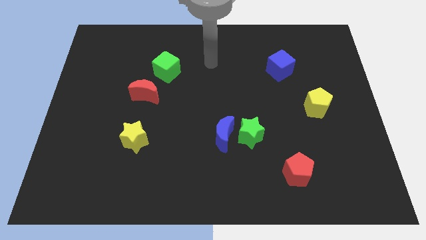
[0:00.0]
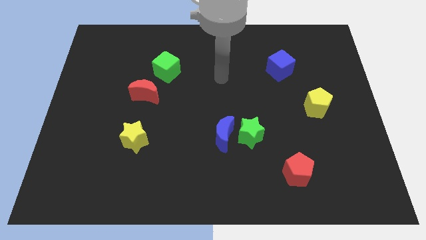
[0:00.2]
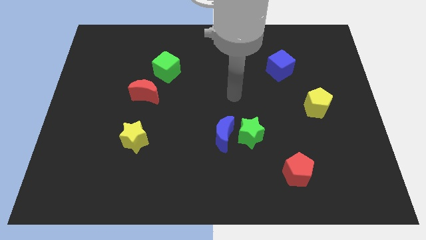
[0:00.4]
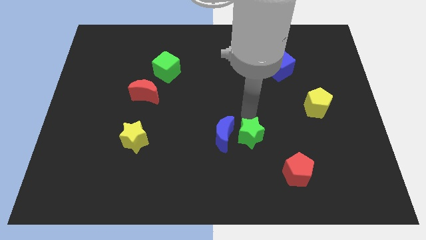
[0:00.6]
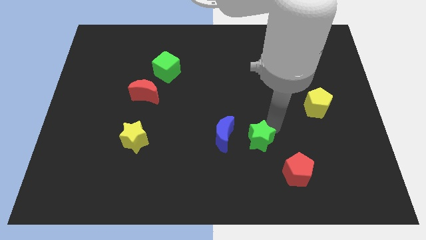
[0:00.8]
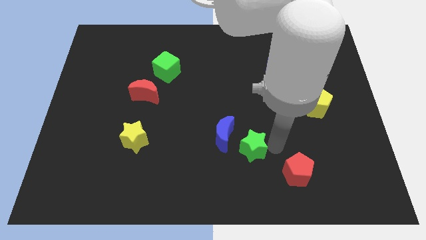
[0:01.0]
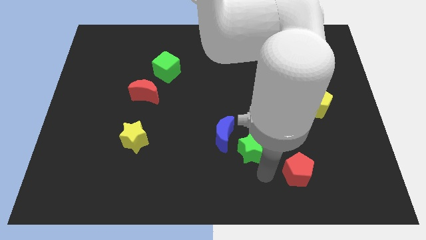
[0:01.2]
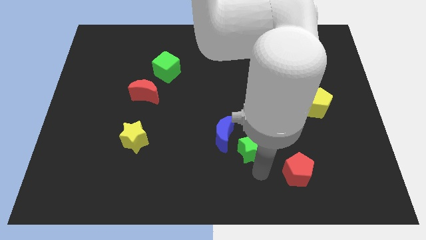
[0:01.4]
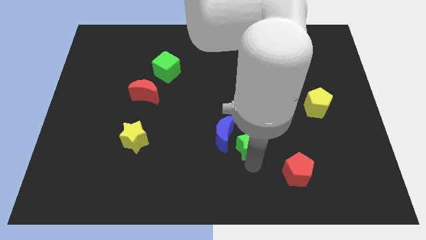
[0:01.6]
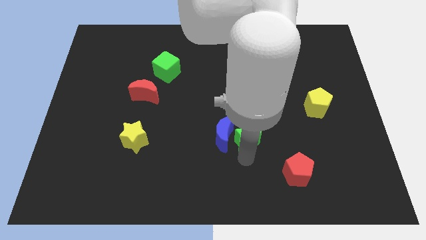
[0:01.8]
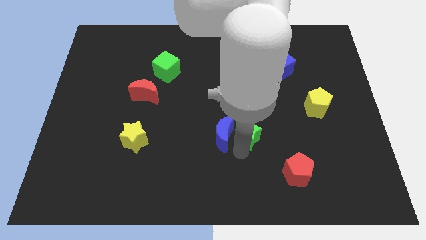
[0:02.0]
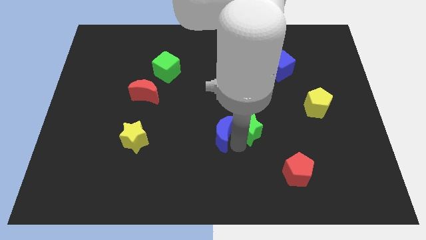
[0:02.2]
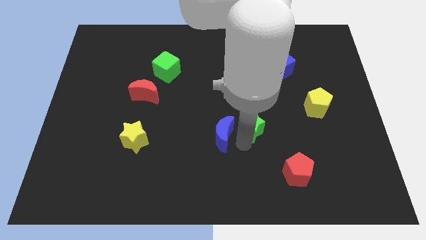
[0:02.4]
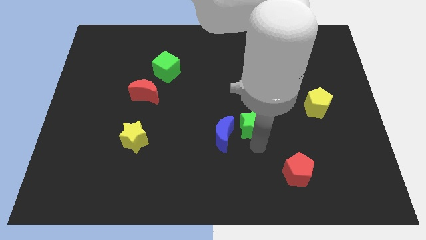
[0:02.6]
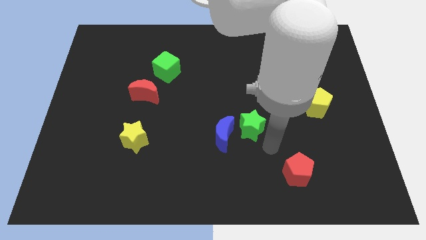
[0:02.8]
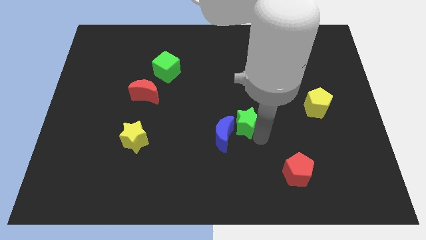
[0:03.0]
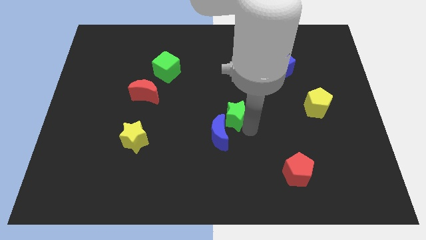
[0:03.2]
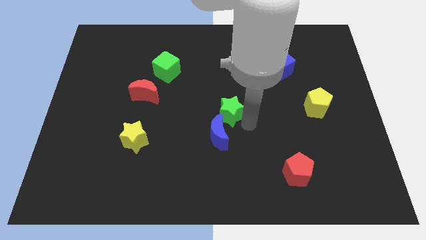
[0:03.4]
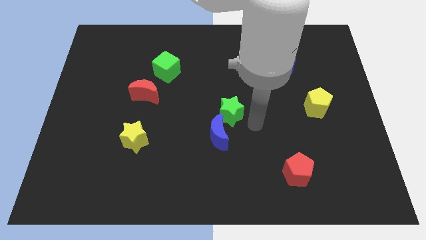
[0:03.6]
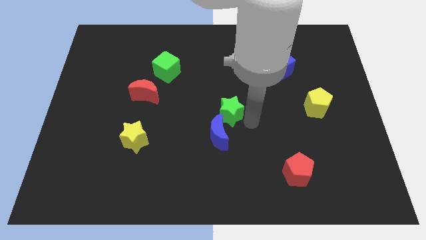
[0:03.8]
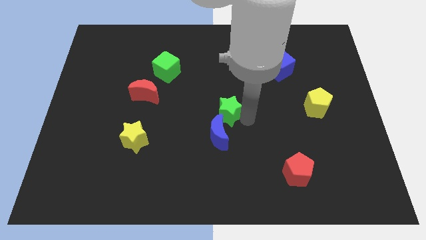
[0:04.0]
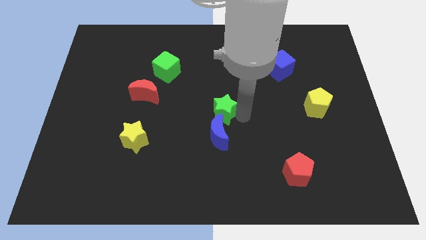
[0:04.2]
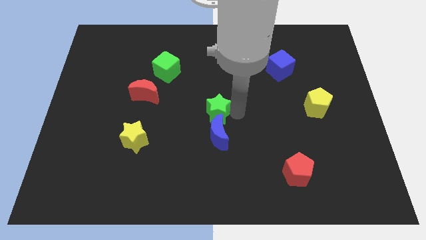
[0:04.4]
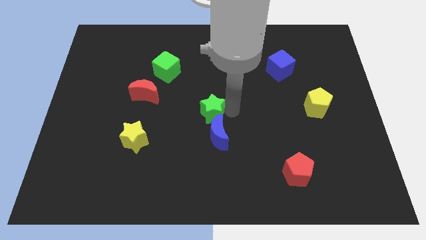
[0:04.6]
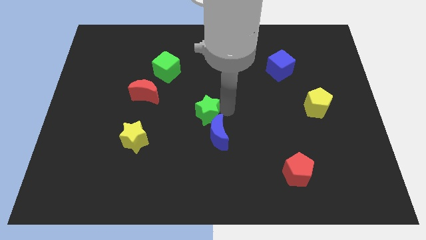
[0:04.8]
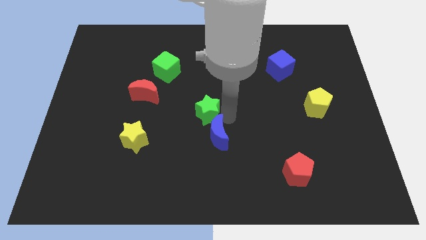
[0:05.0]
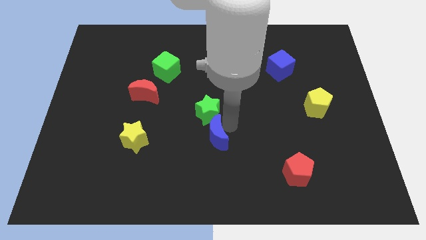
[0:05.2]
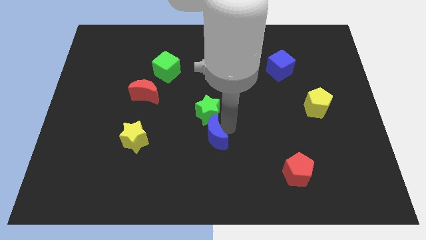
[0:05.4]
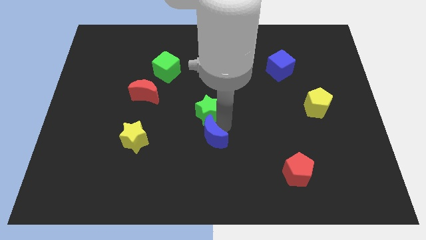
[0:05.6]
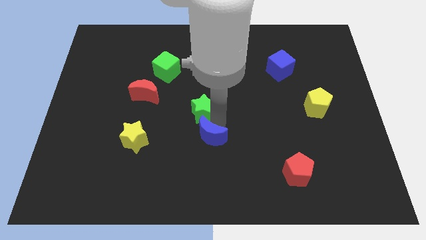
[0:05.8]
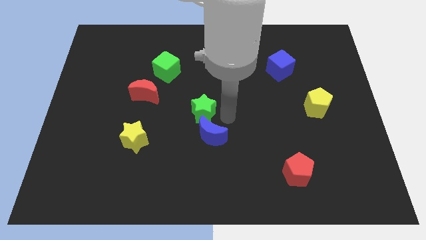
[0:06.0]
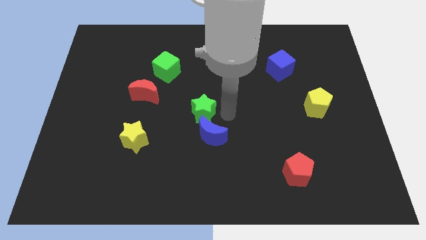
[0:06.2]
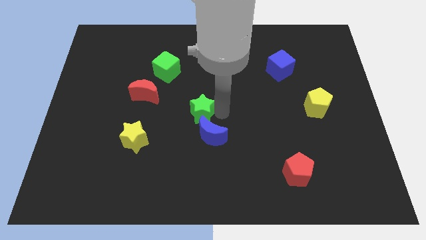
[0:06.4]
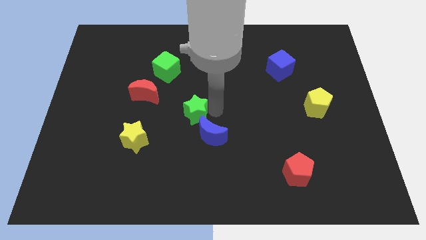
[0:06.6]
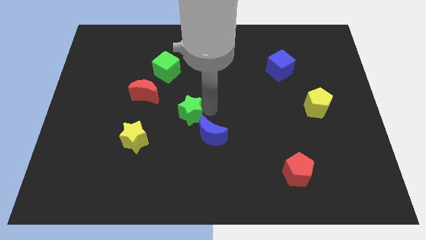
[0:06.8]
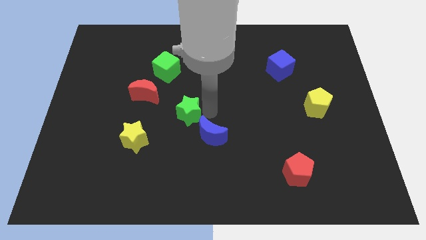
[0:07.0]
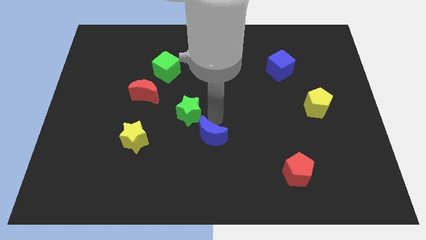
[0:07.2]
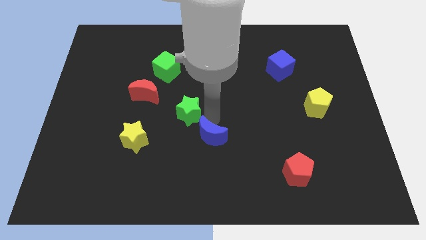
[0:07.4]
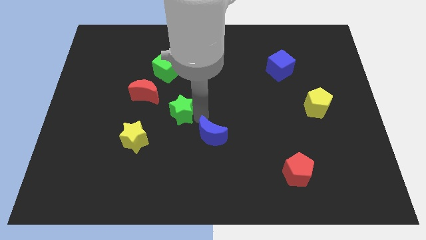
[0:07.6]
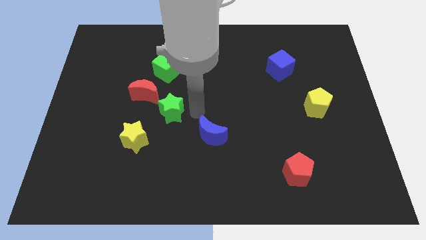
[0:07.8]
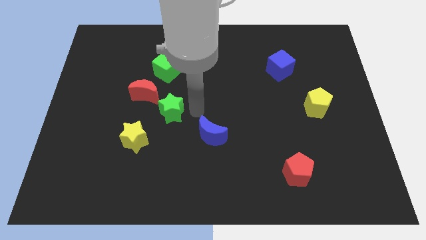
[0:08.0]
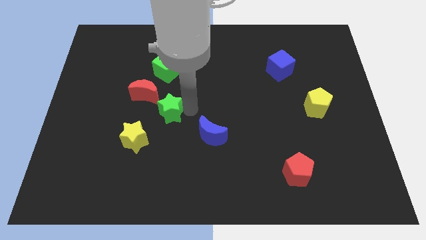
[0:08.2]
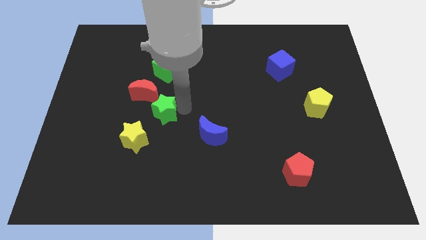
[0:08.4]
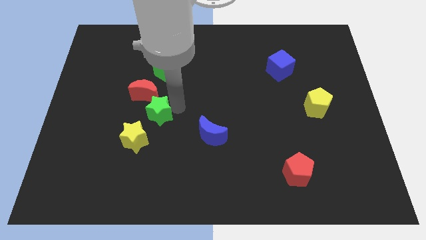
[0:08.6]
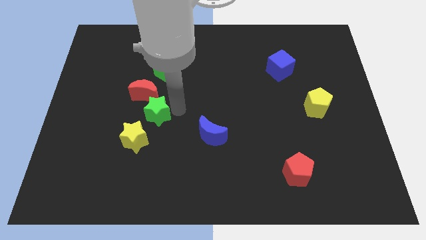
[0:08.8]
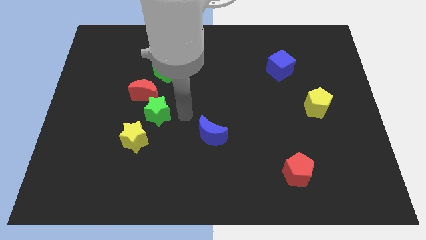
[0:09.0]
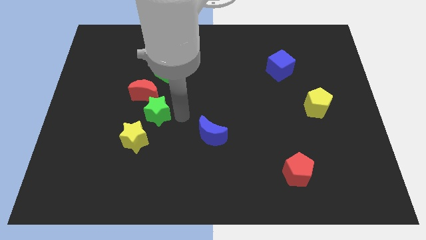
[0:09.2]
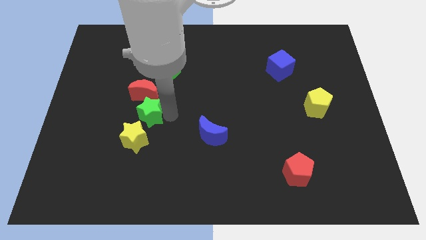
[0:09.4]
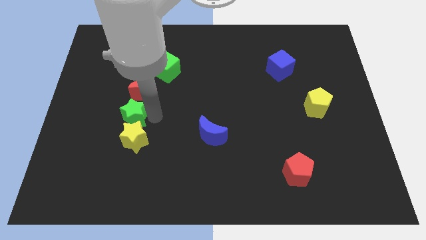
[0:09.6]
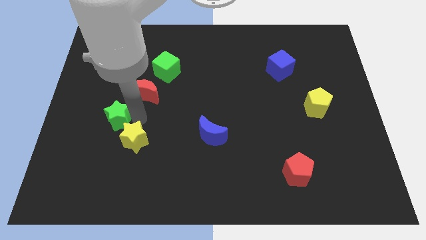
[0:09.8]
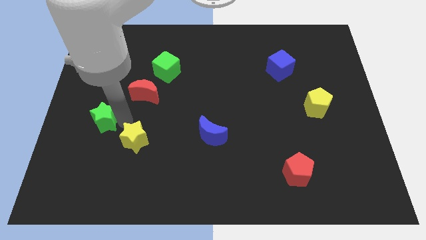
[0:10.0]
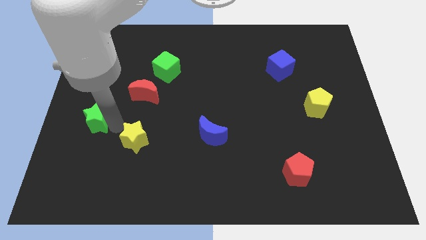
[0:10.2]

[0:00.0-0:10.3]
put the green star to the left side

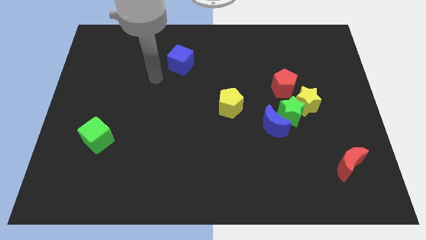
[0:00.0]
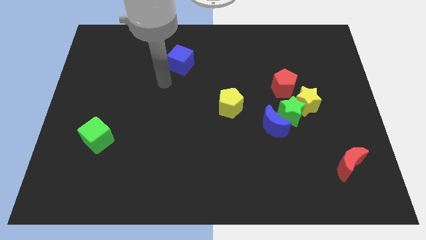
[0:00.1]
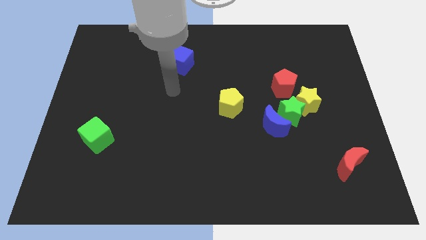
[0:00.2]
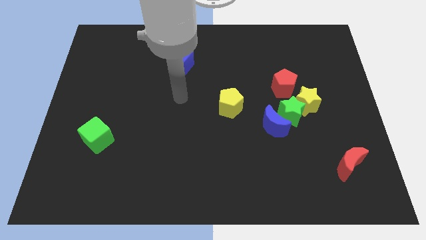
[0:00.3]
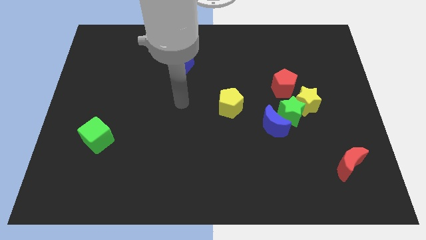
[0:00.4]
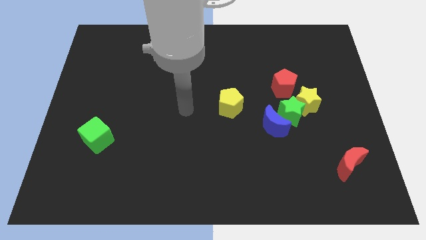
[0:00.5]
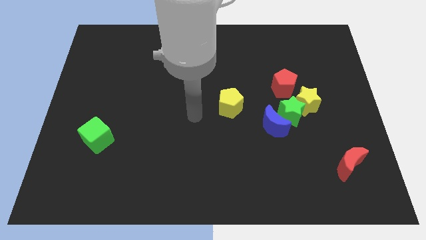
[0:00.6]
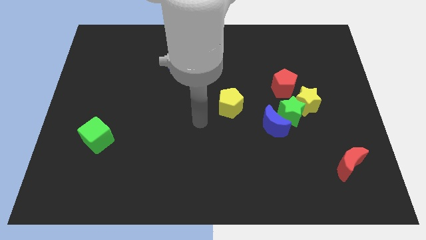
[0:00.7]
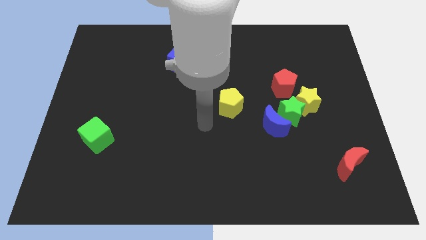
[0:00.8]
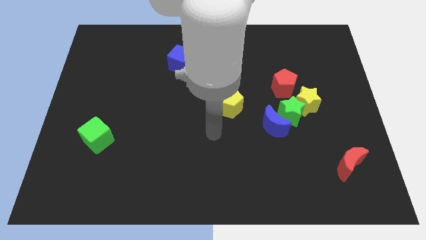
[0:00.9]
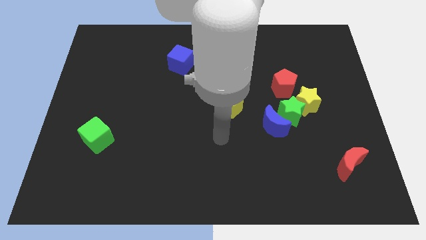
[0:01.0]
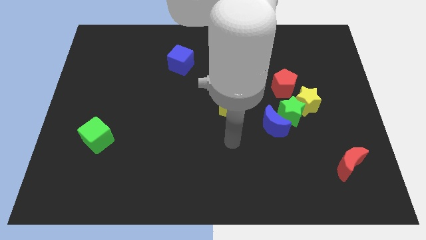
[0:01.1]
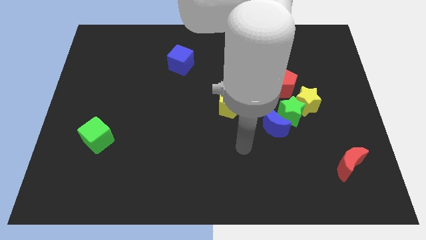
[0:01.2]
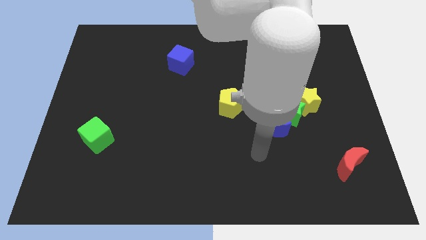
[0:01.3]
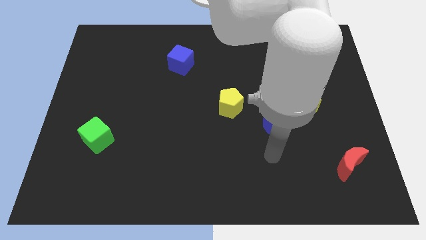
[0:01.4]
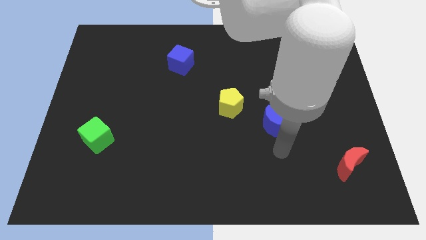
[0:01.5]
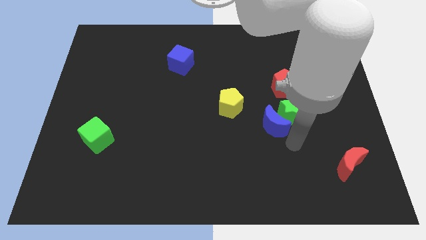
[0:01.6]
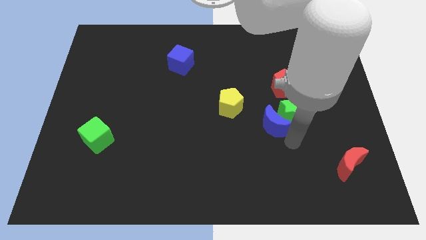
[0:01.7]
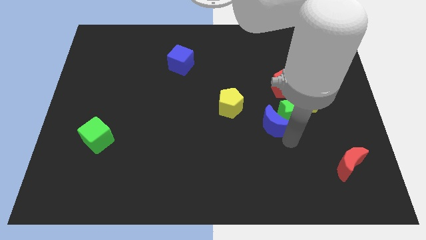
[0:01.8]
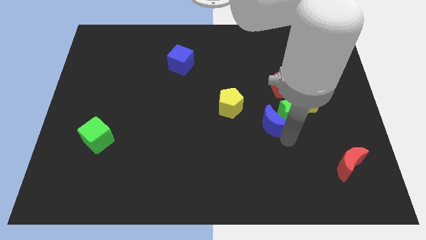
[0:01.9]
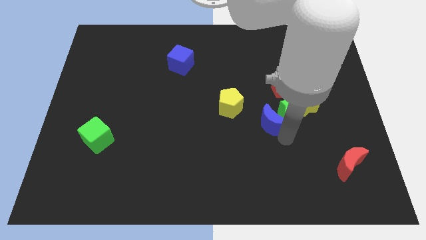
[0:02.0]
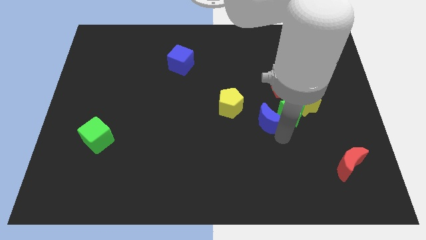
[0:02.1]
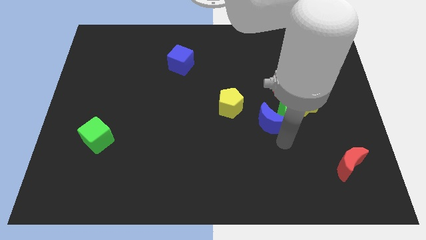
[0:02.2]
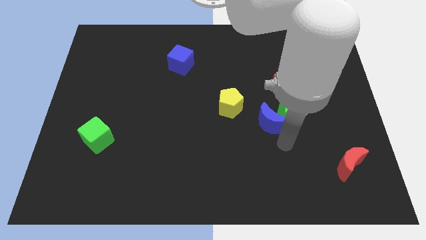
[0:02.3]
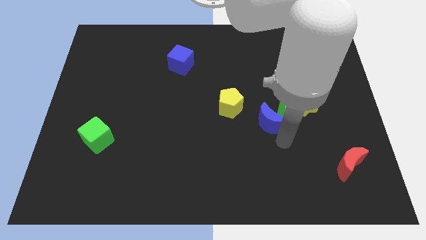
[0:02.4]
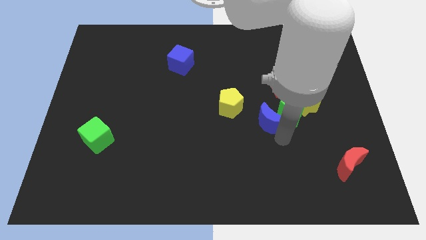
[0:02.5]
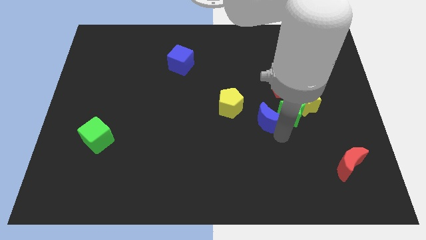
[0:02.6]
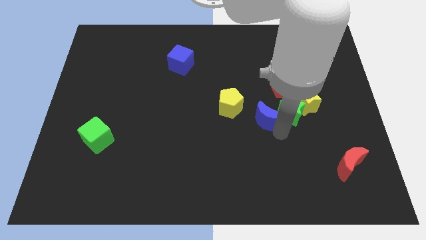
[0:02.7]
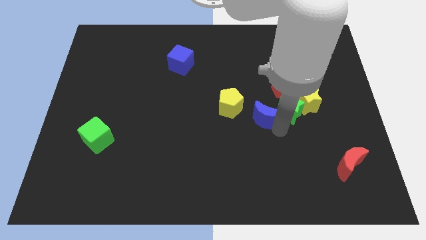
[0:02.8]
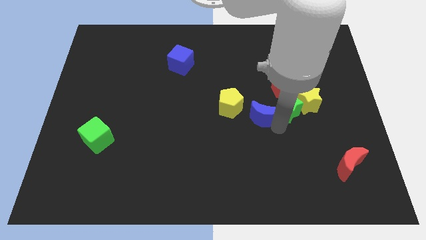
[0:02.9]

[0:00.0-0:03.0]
move the blue moon to the middle
